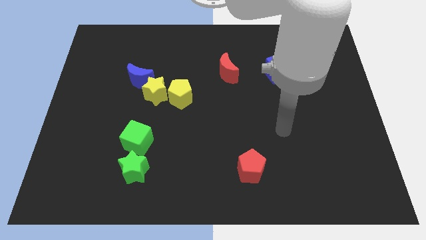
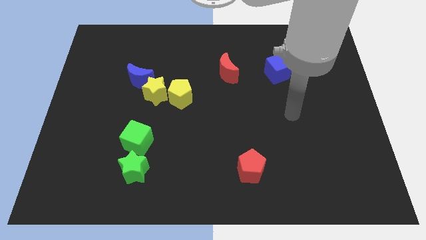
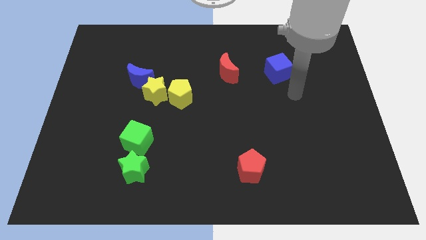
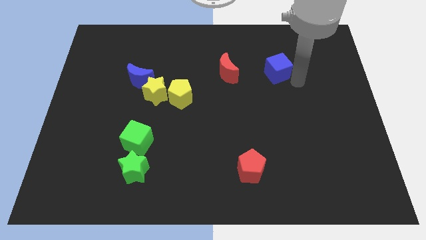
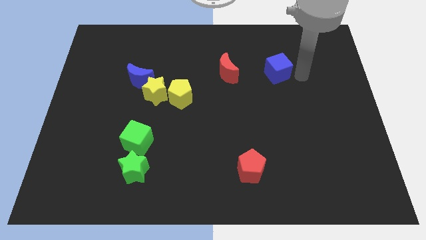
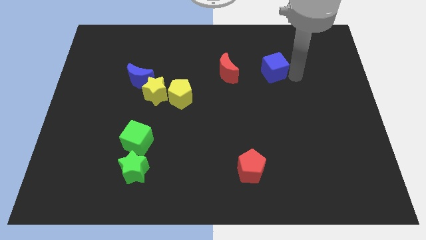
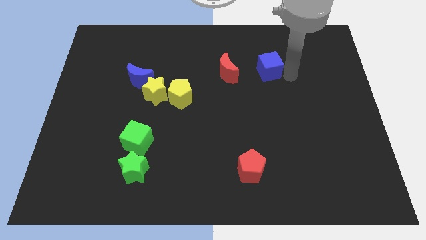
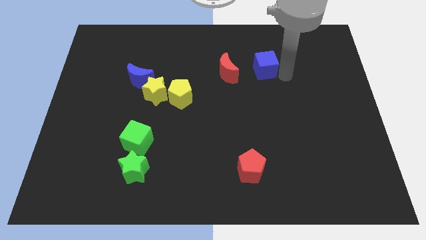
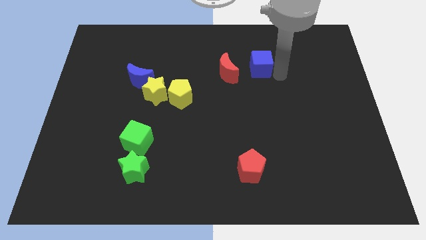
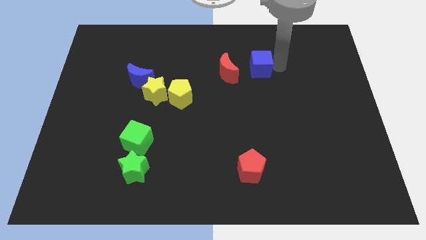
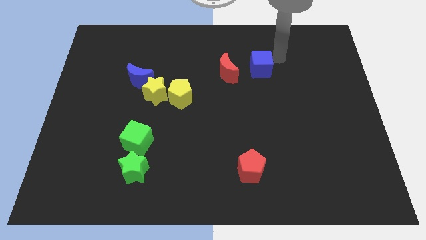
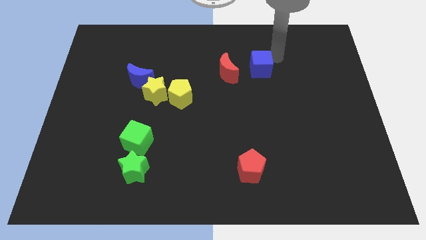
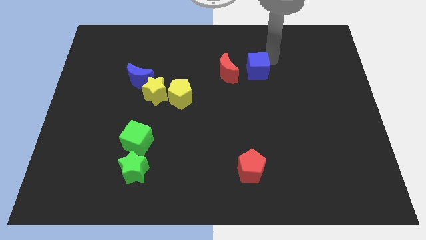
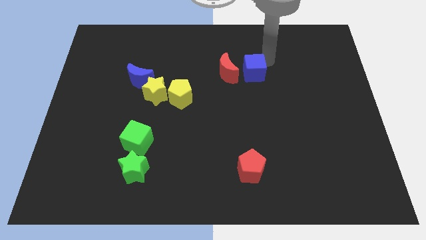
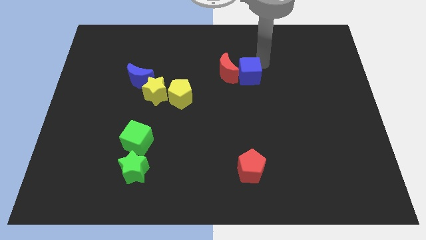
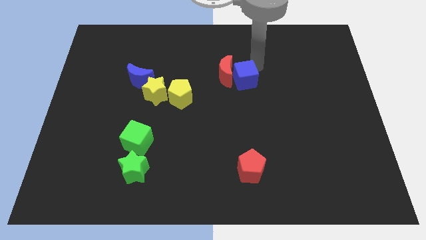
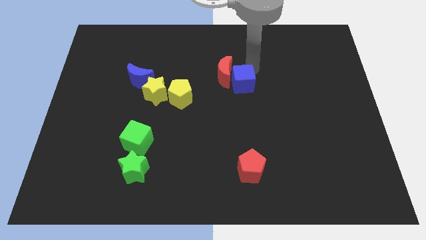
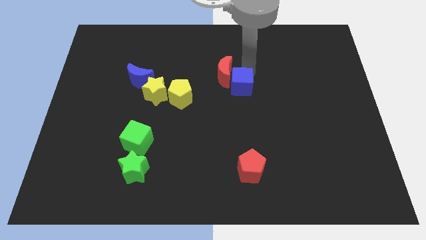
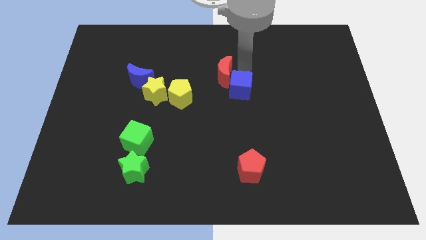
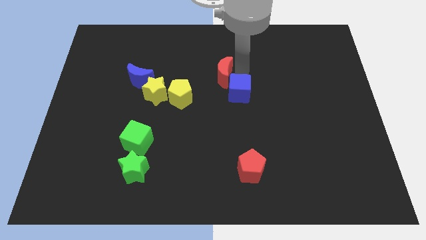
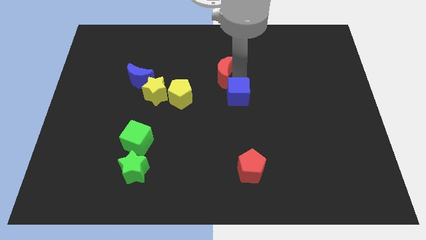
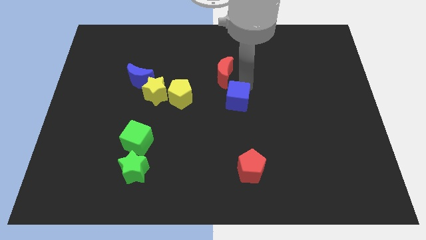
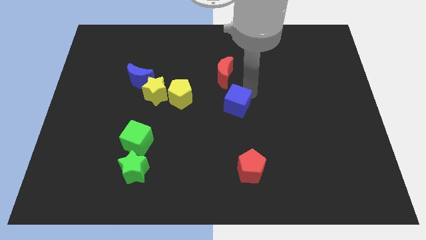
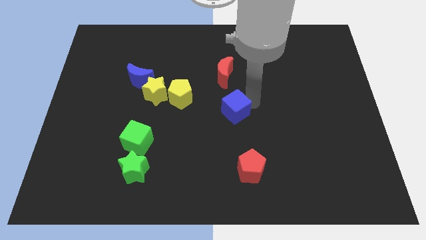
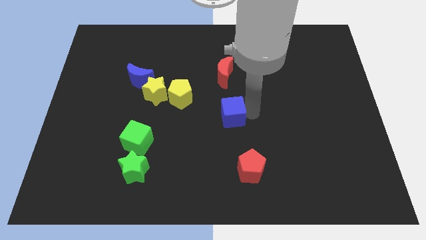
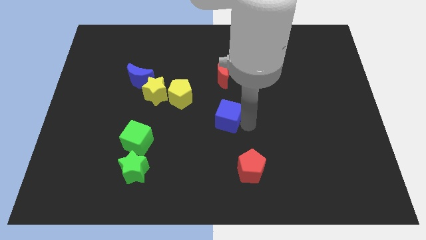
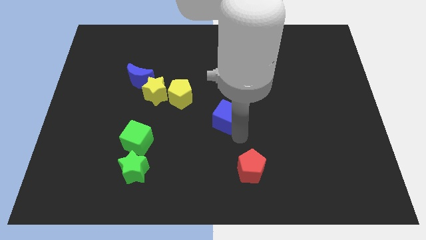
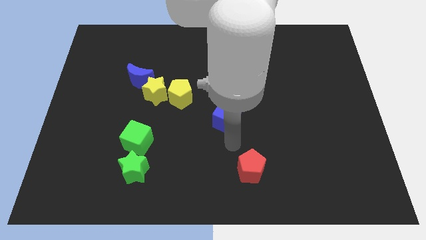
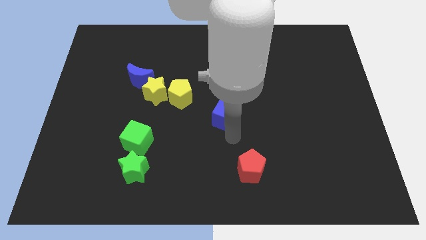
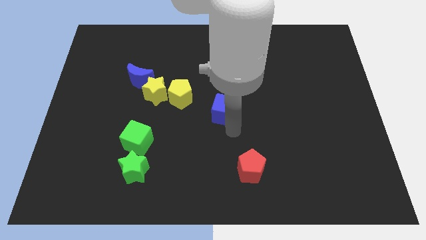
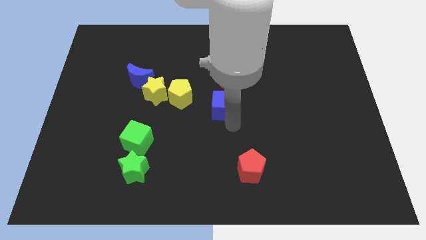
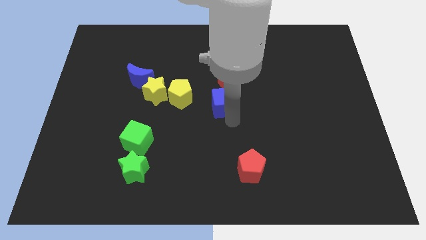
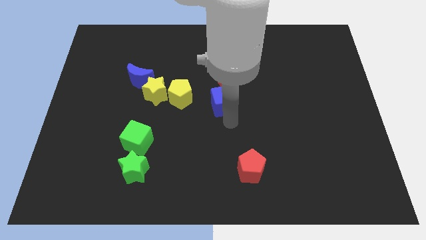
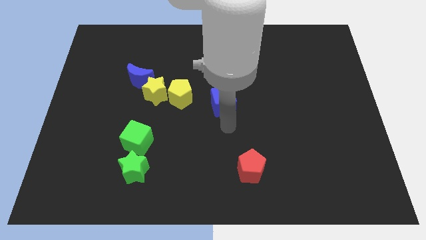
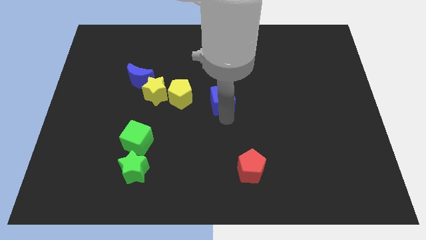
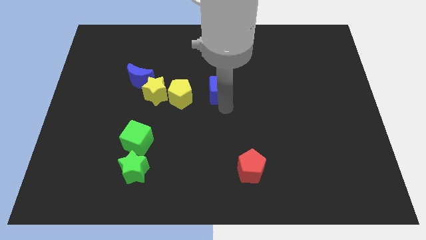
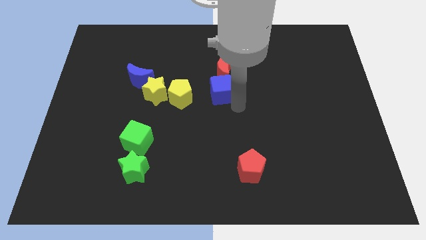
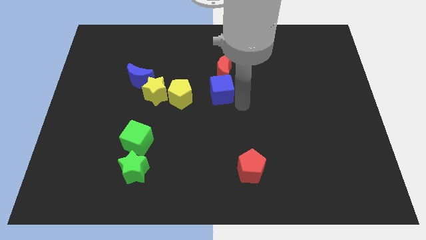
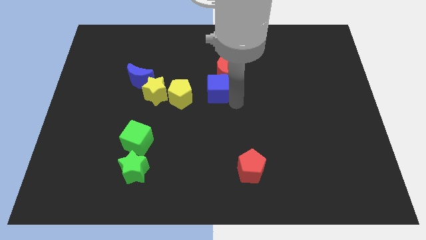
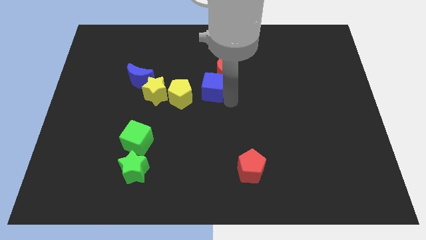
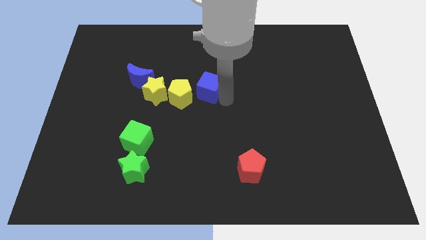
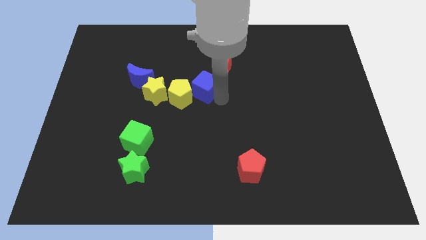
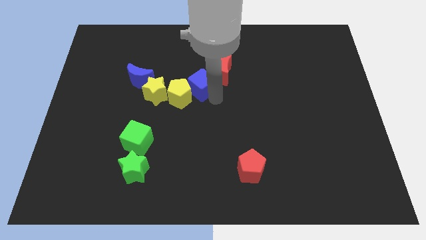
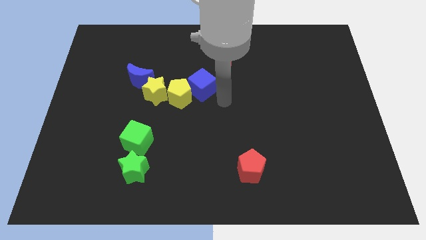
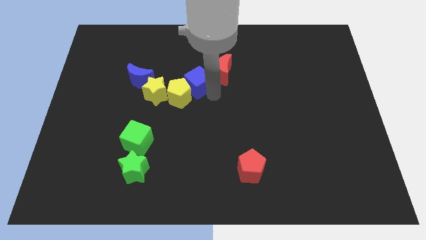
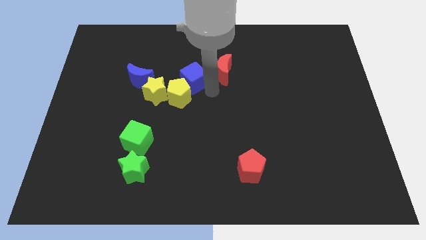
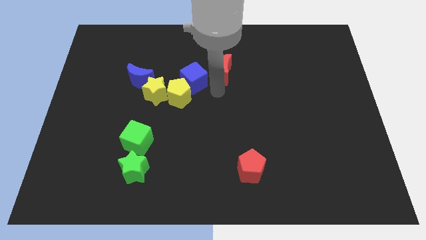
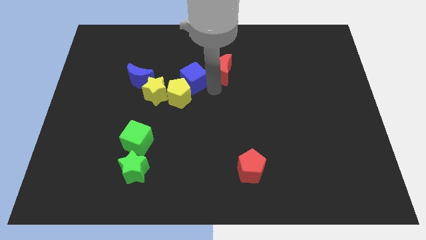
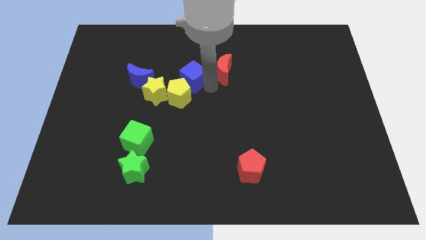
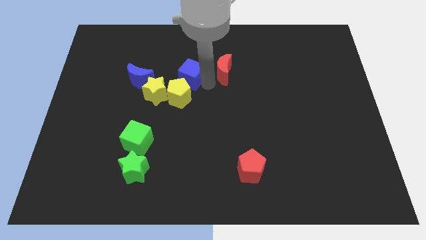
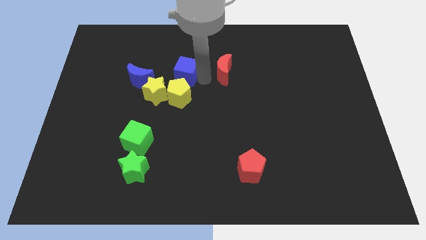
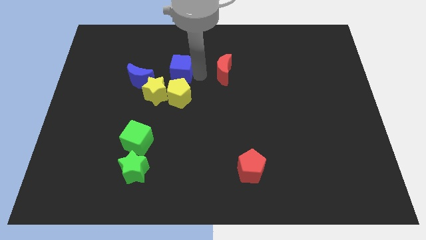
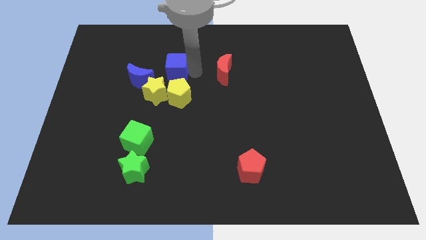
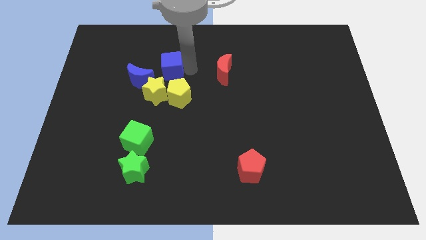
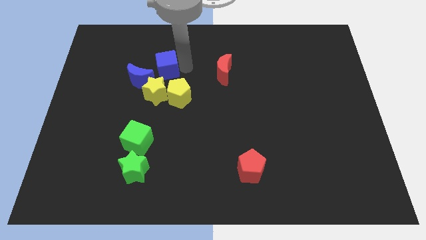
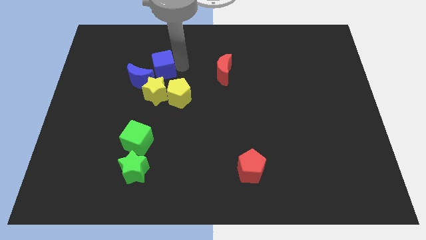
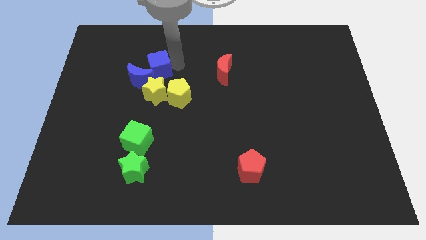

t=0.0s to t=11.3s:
move the blue cube close to the blue moon

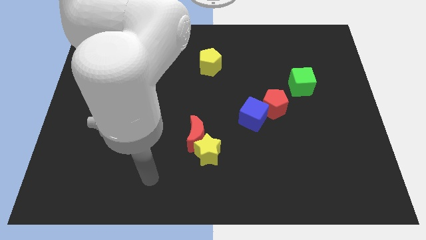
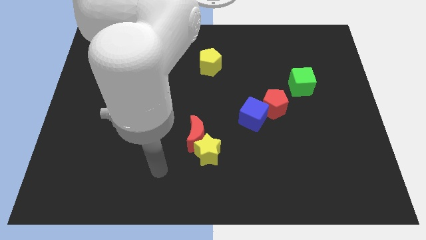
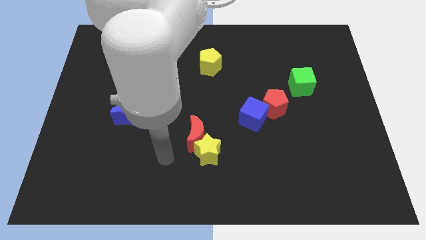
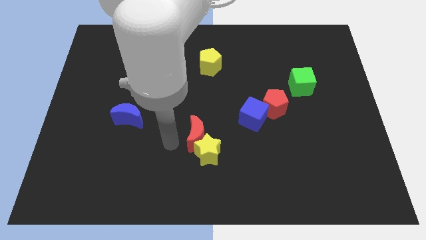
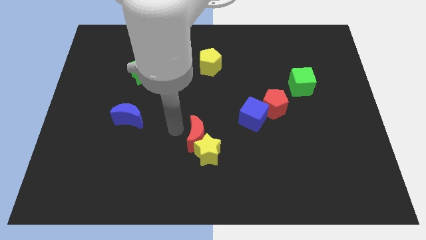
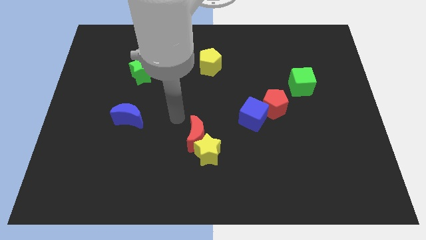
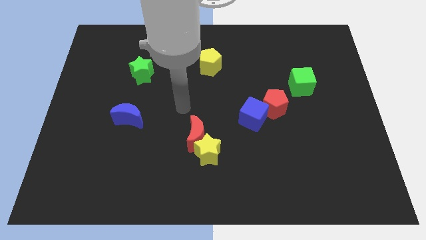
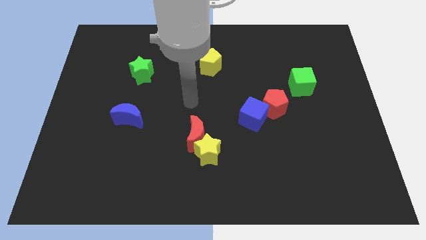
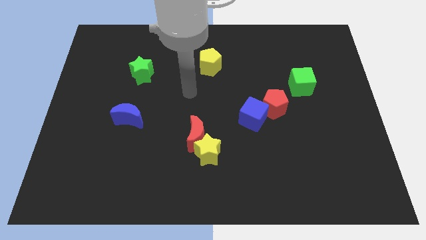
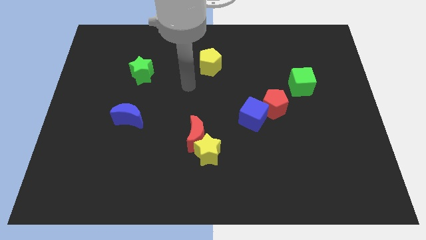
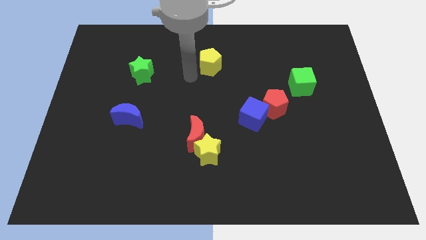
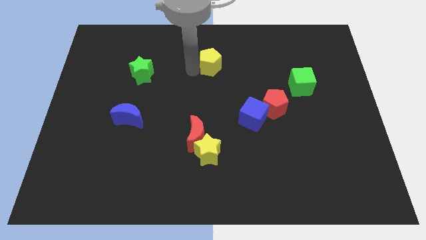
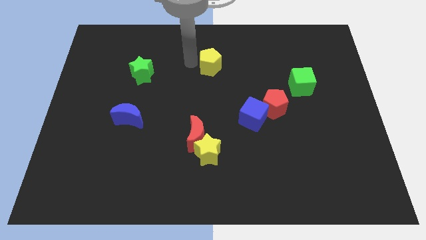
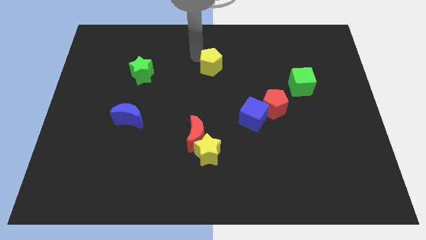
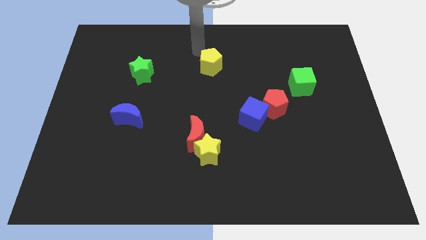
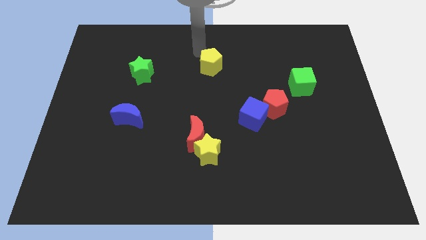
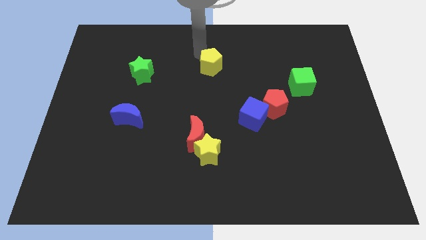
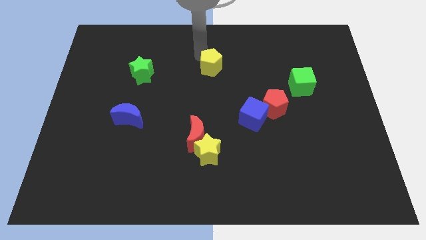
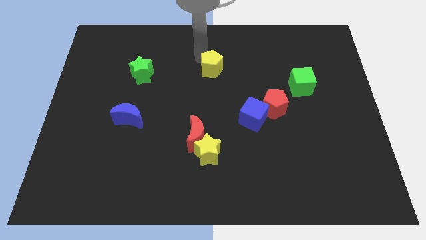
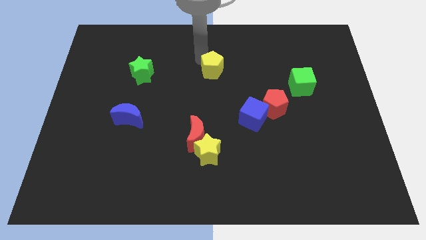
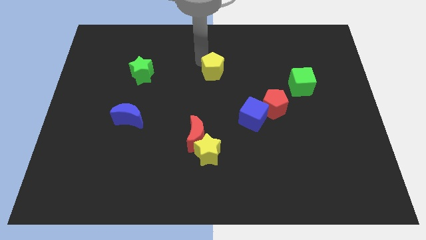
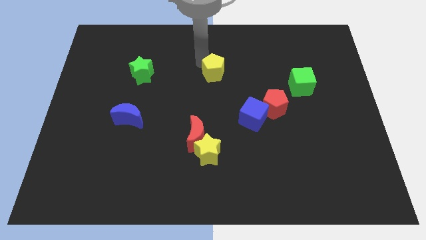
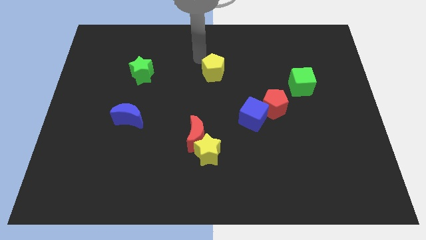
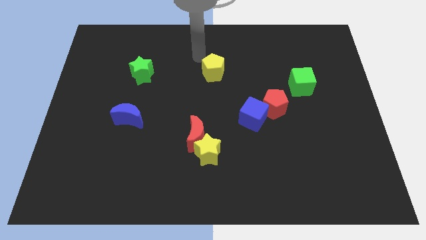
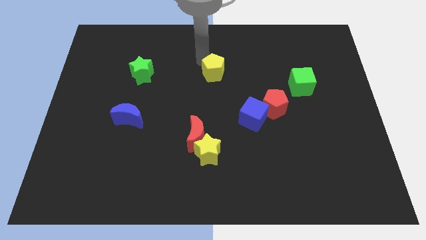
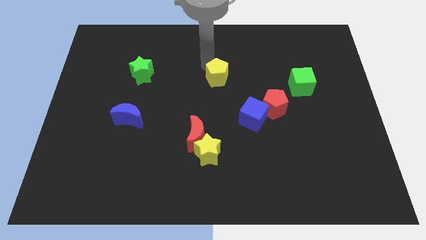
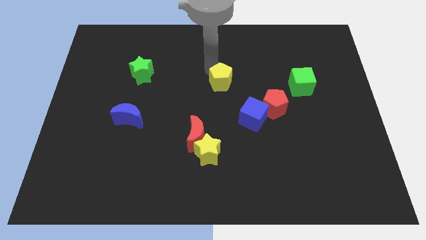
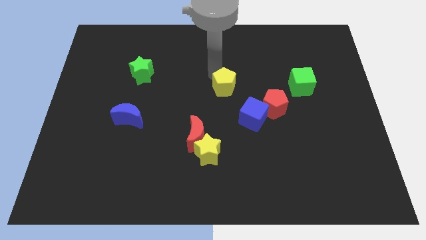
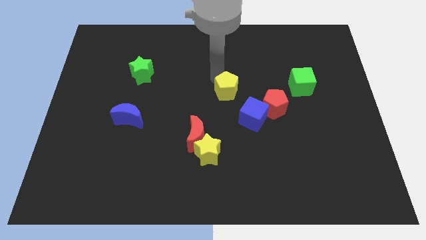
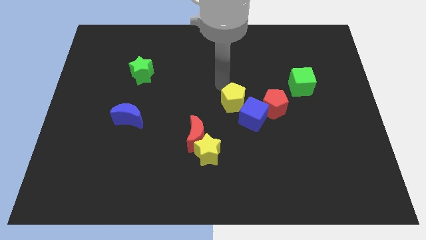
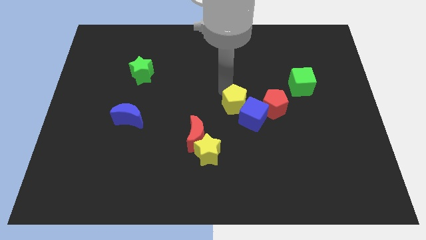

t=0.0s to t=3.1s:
move the yellow pentagon towards the blue cube
